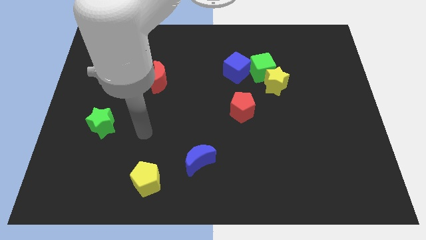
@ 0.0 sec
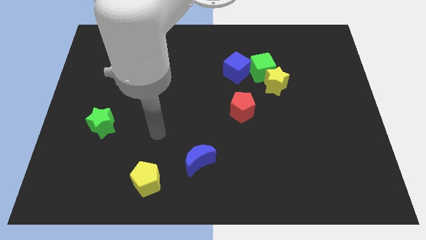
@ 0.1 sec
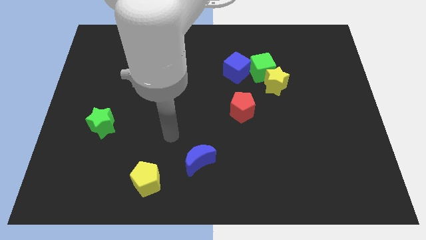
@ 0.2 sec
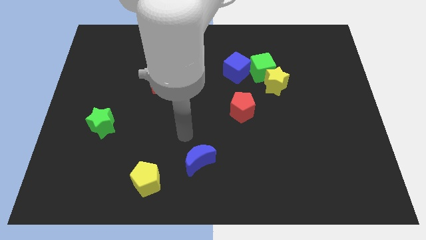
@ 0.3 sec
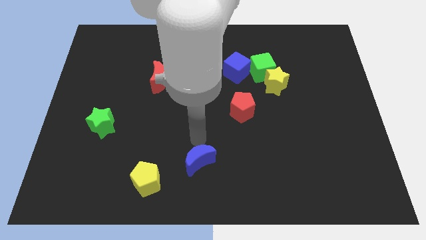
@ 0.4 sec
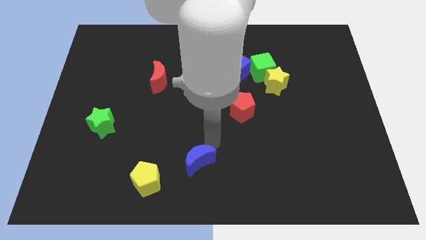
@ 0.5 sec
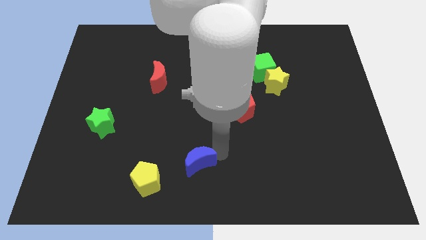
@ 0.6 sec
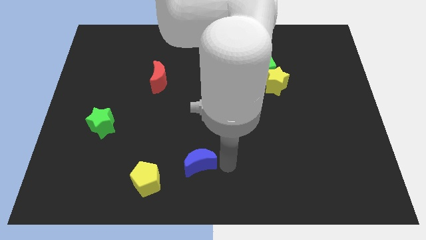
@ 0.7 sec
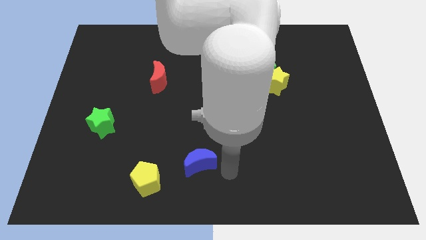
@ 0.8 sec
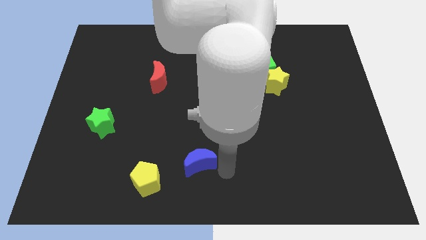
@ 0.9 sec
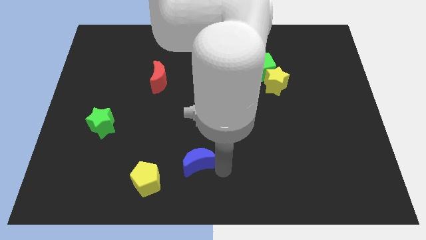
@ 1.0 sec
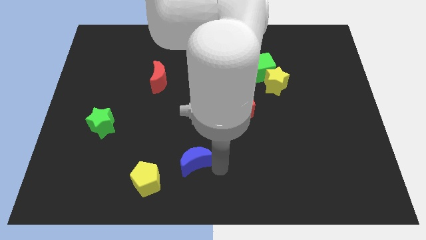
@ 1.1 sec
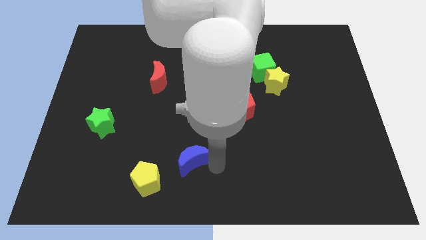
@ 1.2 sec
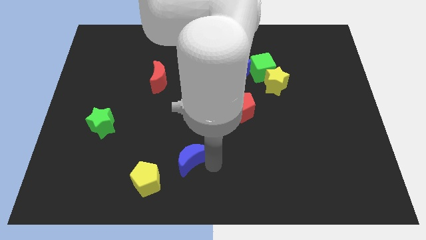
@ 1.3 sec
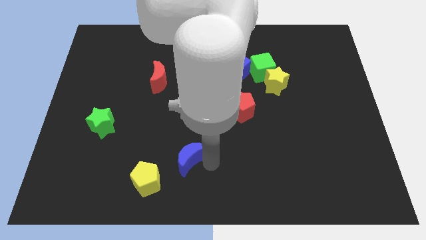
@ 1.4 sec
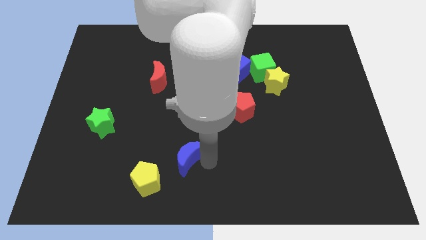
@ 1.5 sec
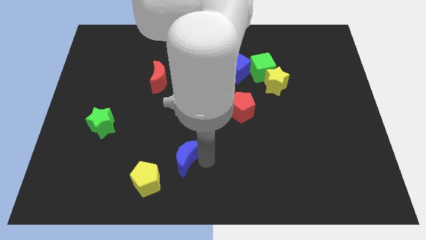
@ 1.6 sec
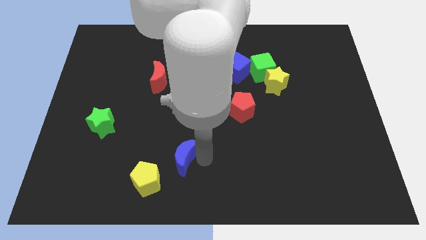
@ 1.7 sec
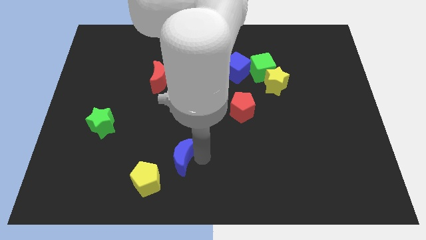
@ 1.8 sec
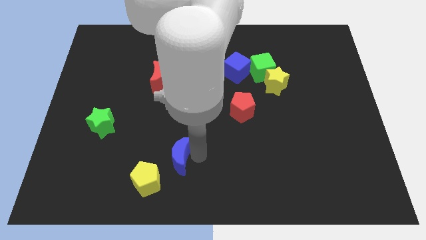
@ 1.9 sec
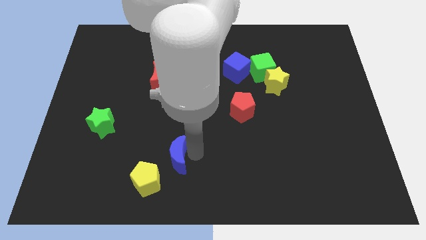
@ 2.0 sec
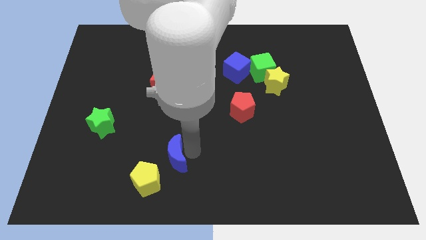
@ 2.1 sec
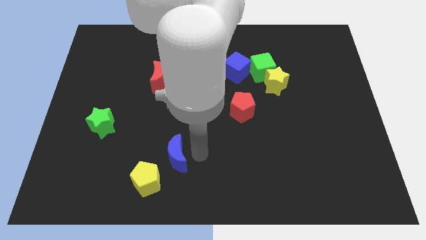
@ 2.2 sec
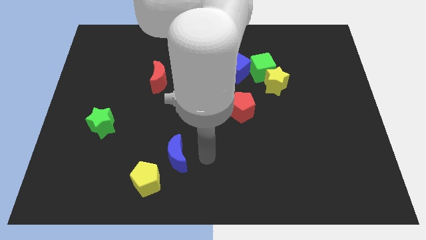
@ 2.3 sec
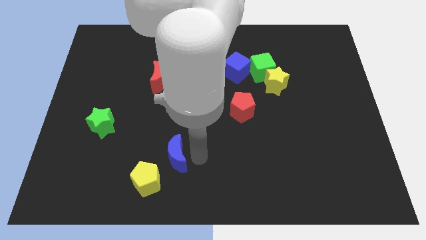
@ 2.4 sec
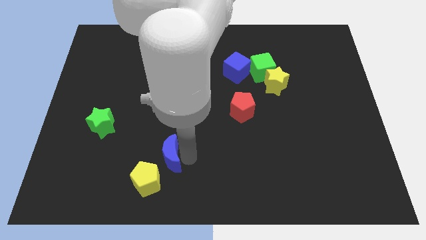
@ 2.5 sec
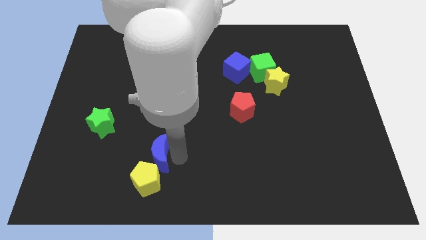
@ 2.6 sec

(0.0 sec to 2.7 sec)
slightly slide the blue moon left

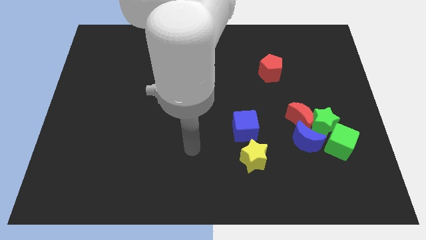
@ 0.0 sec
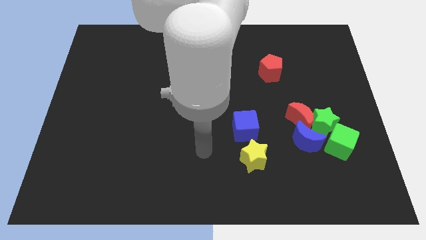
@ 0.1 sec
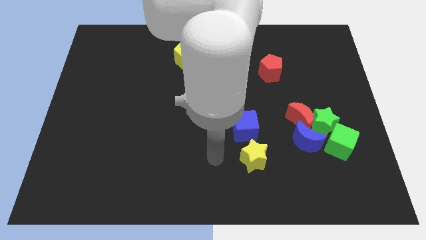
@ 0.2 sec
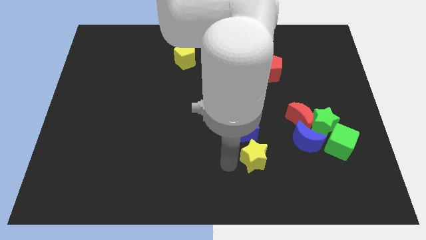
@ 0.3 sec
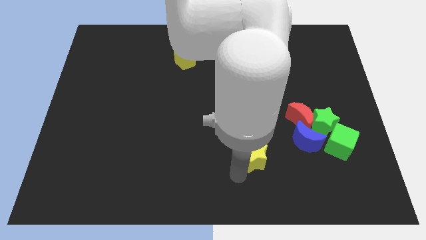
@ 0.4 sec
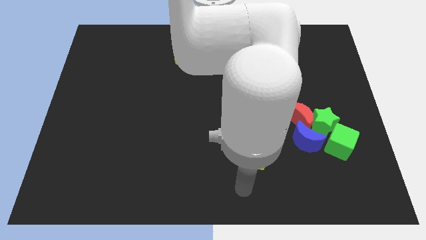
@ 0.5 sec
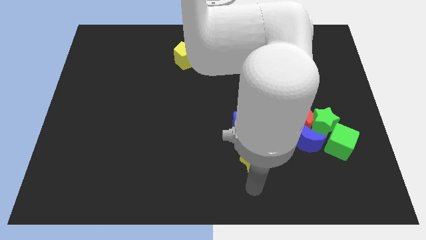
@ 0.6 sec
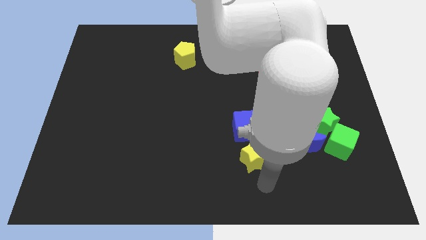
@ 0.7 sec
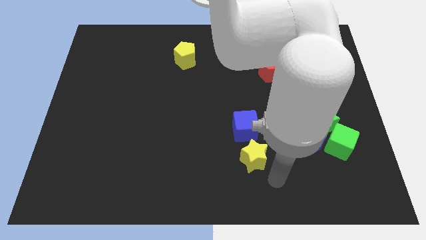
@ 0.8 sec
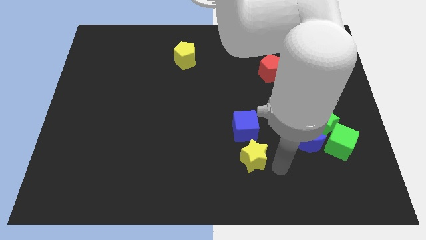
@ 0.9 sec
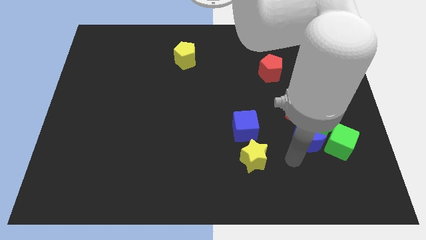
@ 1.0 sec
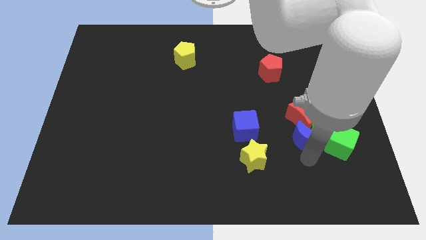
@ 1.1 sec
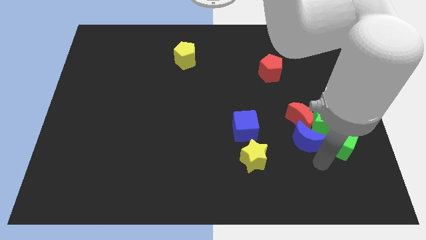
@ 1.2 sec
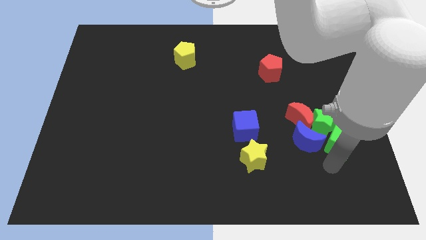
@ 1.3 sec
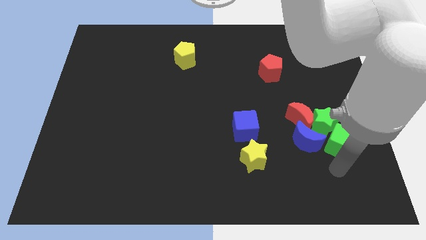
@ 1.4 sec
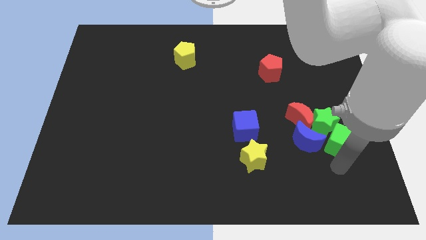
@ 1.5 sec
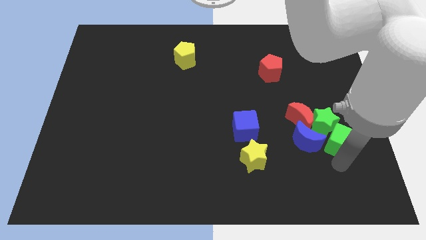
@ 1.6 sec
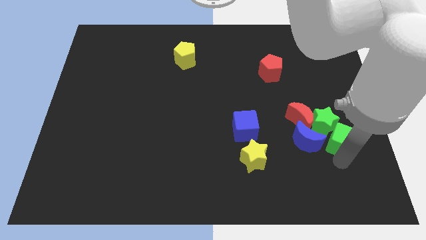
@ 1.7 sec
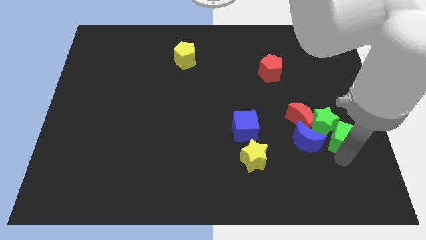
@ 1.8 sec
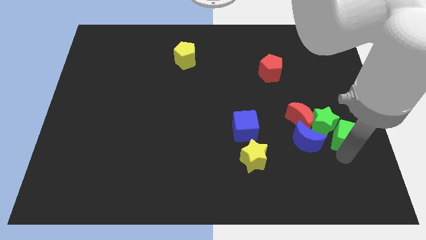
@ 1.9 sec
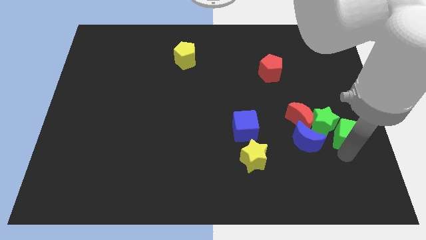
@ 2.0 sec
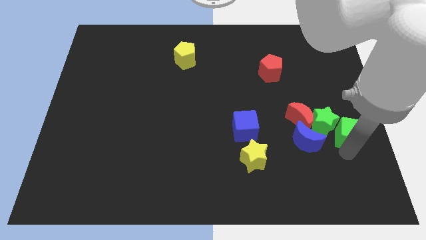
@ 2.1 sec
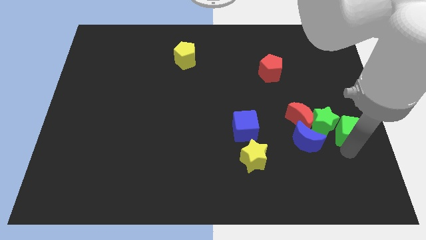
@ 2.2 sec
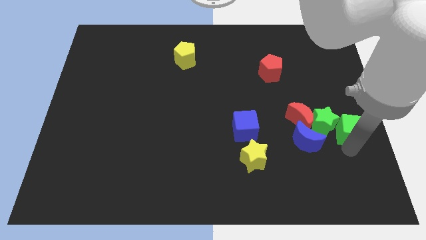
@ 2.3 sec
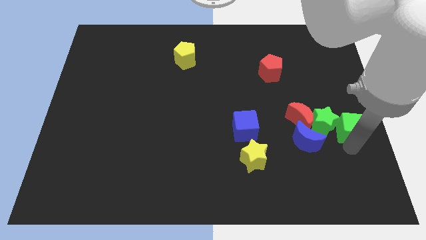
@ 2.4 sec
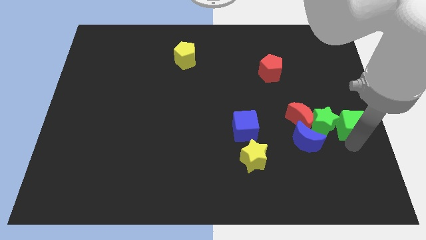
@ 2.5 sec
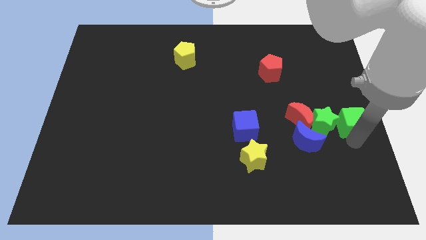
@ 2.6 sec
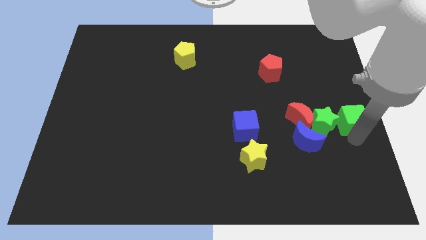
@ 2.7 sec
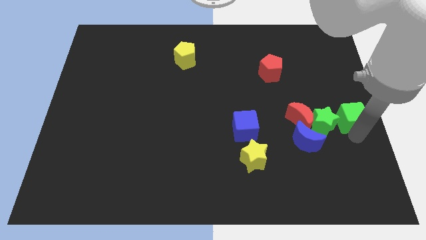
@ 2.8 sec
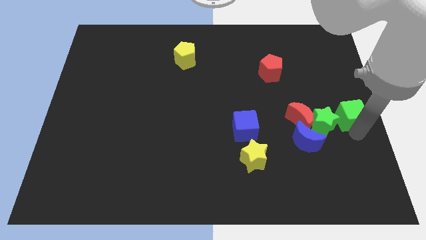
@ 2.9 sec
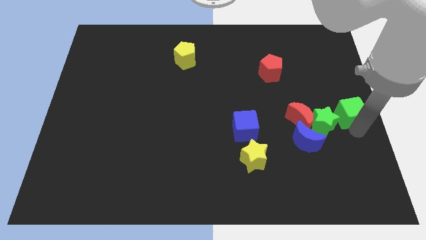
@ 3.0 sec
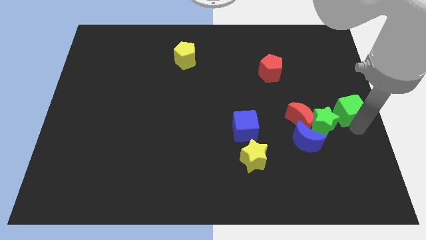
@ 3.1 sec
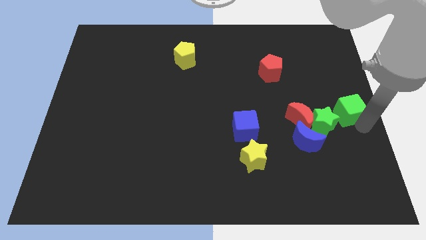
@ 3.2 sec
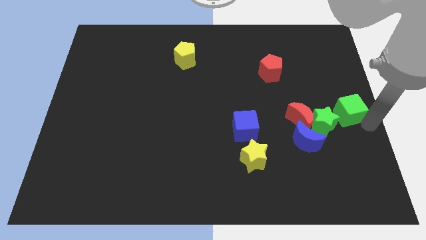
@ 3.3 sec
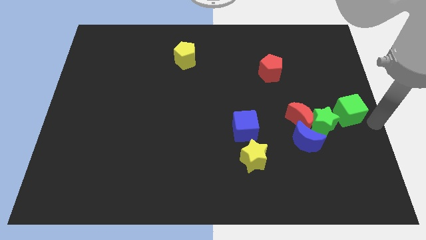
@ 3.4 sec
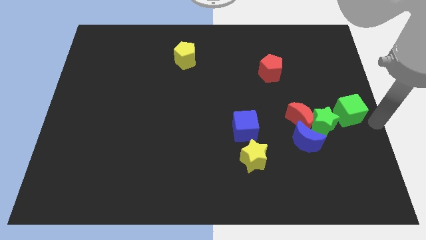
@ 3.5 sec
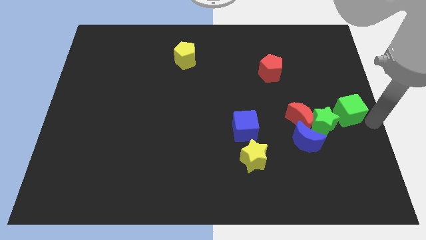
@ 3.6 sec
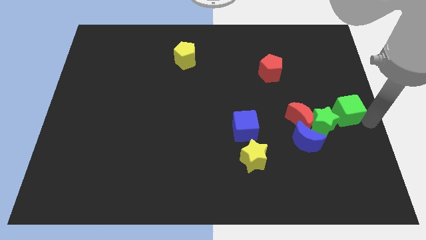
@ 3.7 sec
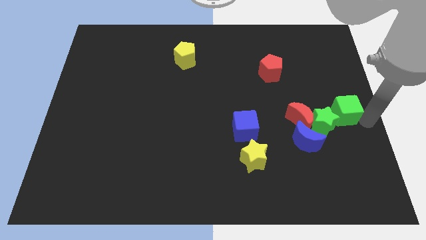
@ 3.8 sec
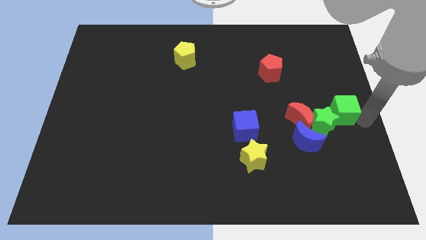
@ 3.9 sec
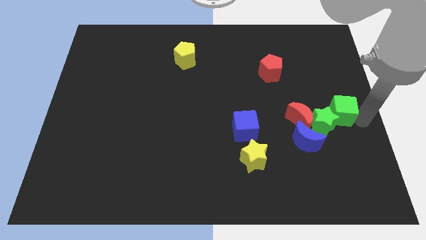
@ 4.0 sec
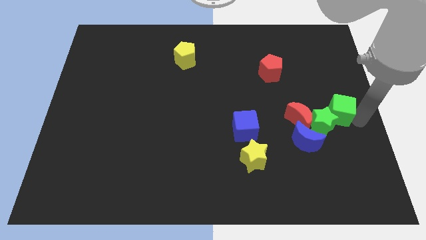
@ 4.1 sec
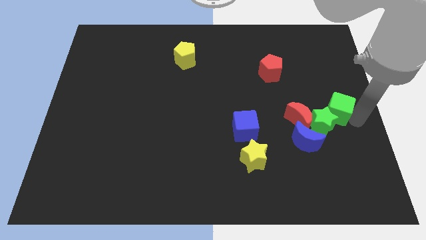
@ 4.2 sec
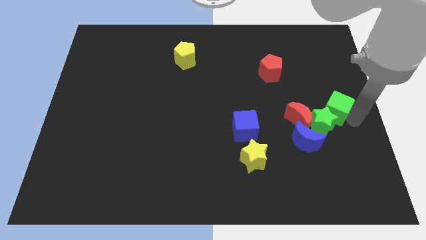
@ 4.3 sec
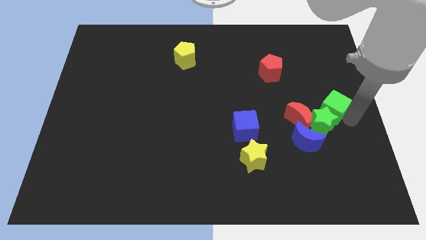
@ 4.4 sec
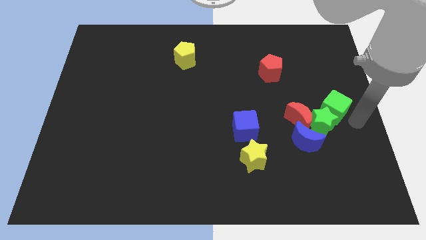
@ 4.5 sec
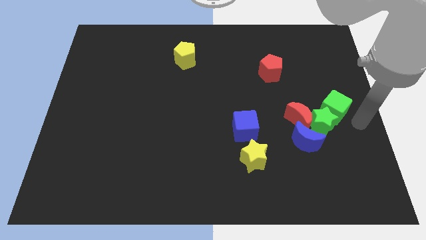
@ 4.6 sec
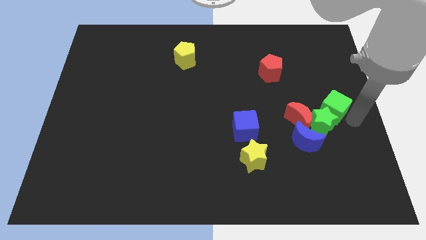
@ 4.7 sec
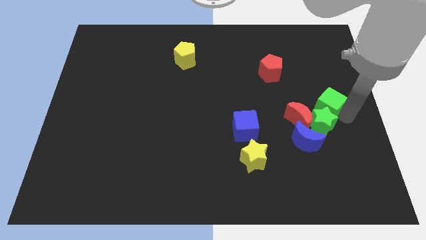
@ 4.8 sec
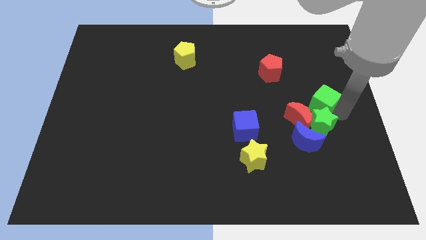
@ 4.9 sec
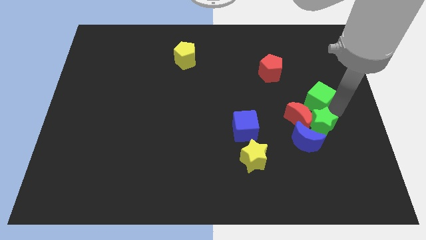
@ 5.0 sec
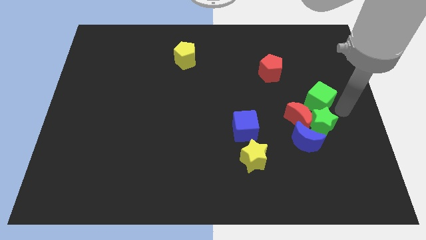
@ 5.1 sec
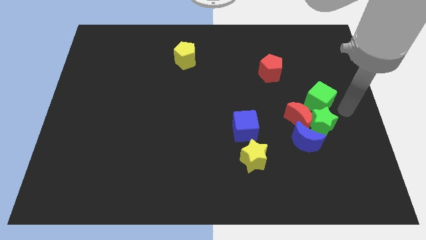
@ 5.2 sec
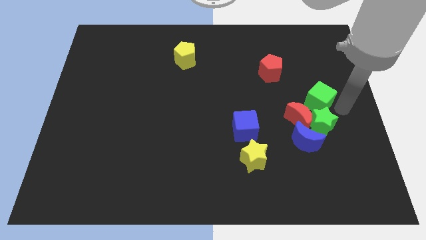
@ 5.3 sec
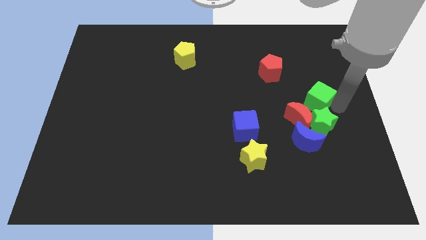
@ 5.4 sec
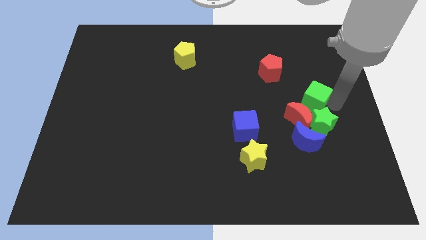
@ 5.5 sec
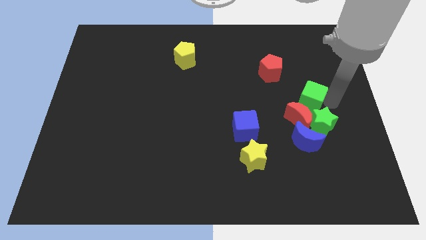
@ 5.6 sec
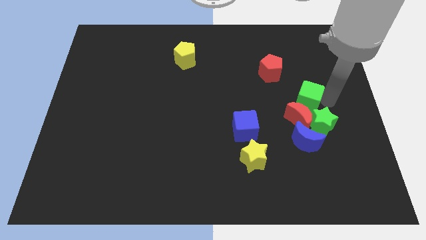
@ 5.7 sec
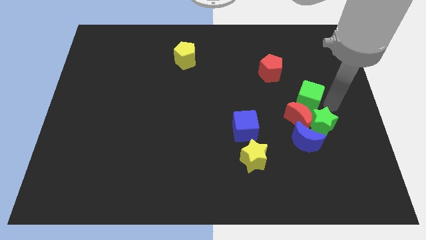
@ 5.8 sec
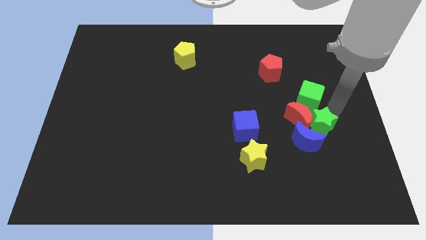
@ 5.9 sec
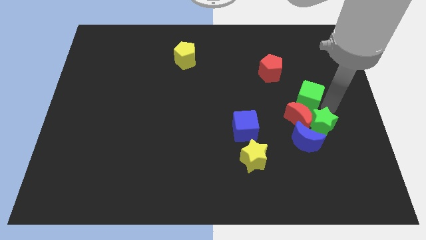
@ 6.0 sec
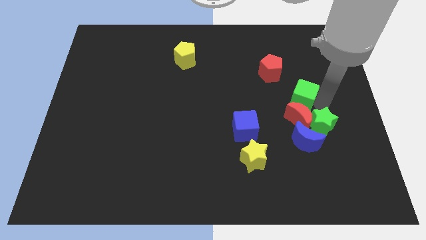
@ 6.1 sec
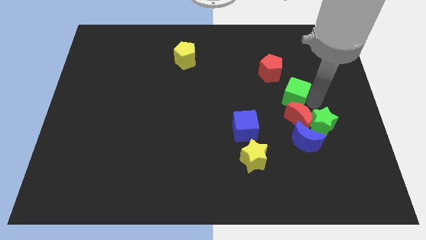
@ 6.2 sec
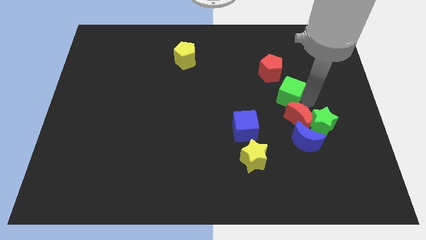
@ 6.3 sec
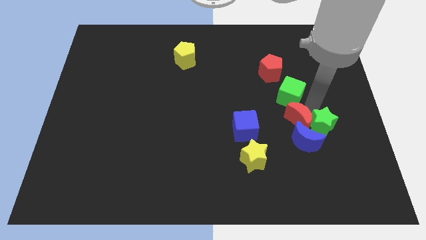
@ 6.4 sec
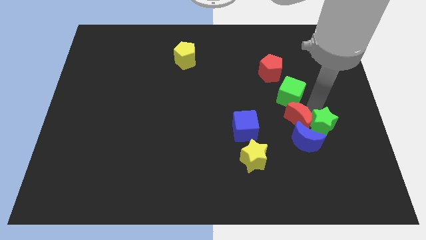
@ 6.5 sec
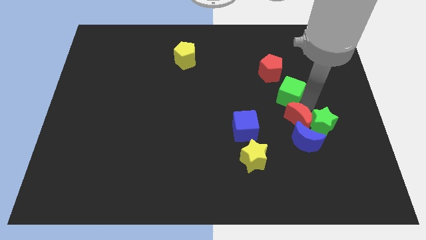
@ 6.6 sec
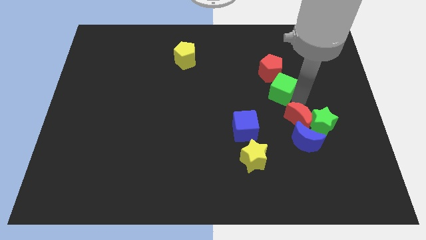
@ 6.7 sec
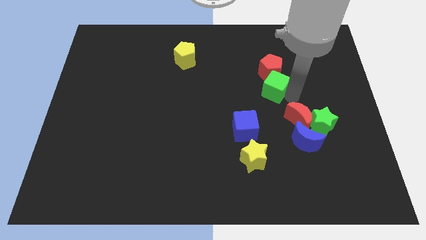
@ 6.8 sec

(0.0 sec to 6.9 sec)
slide the green cube up and then to the left
